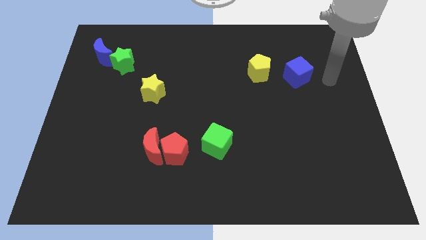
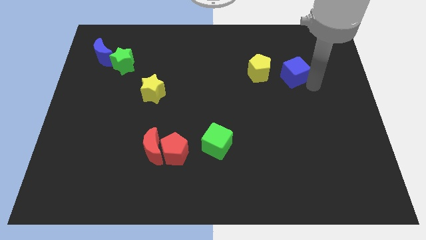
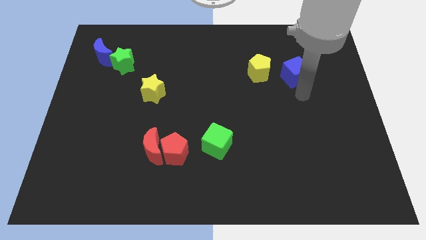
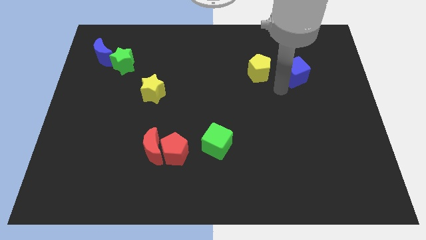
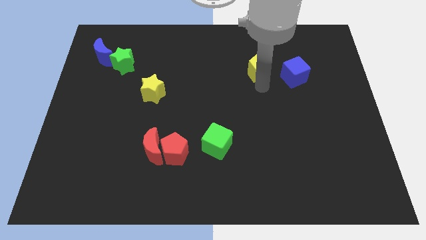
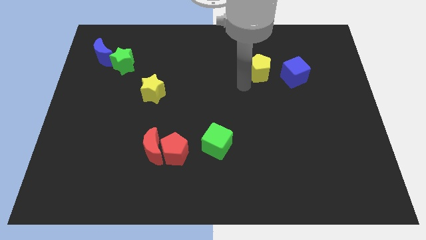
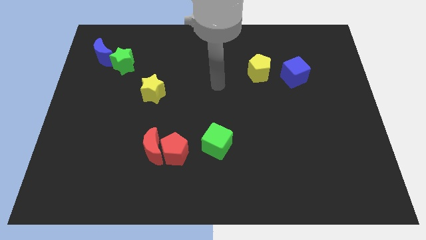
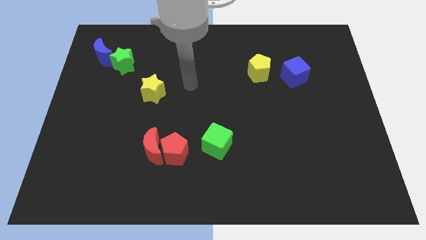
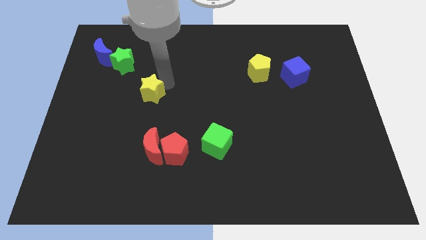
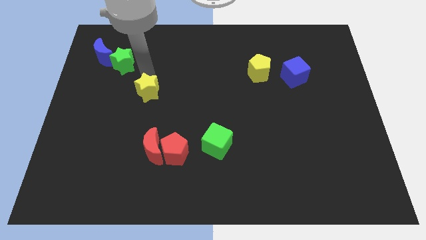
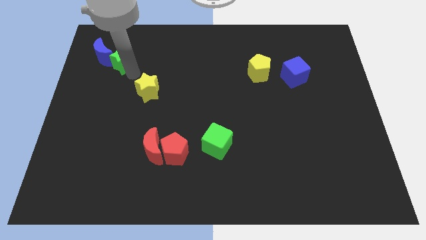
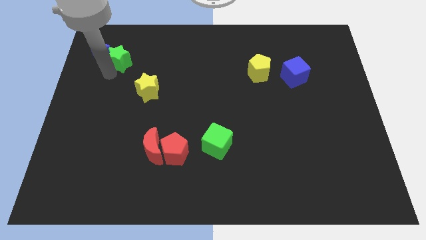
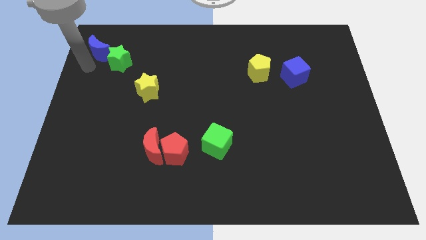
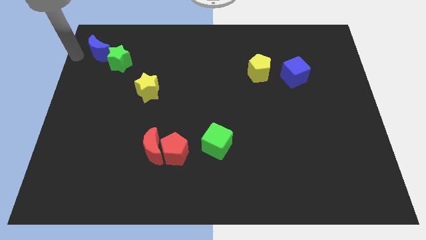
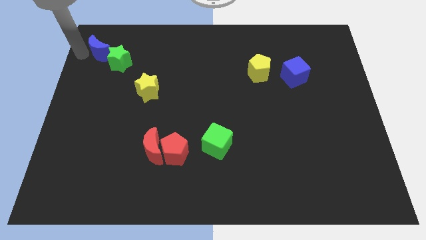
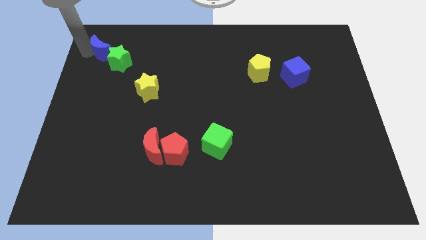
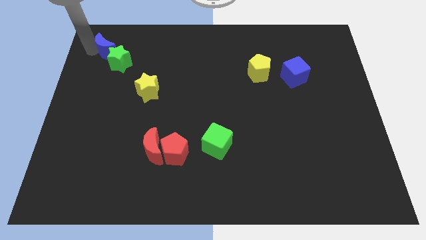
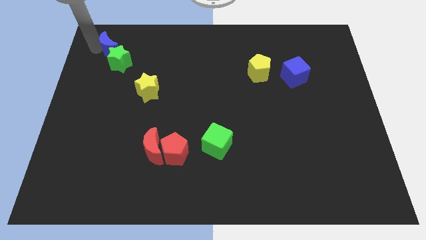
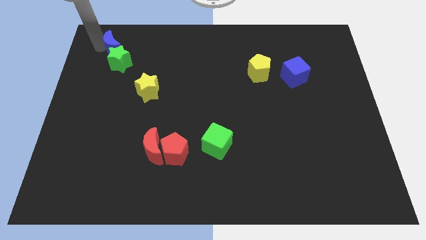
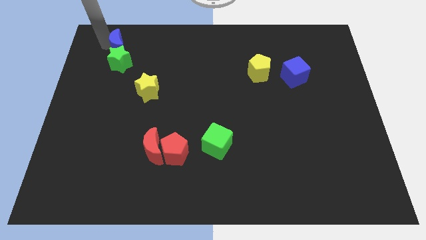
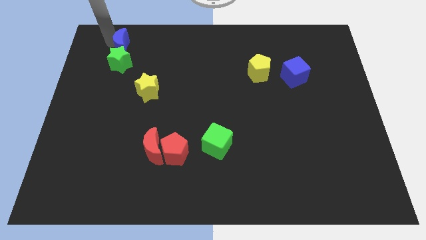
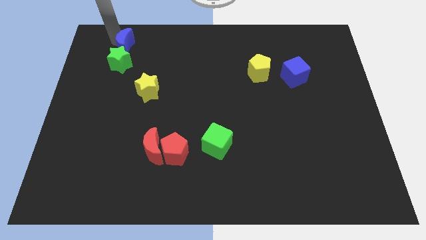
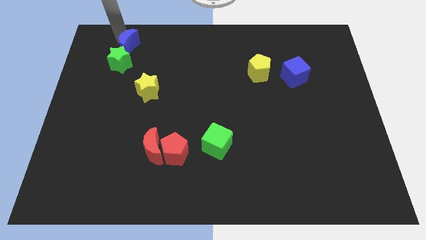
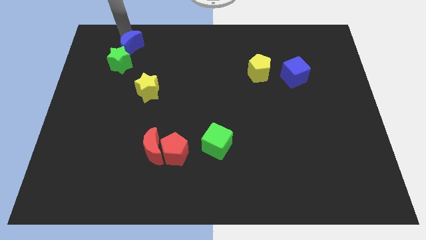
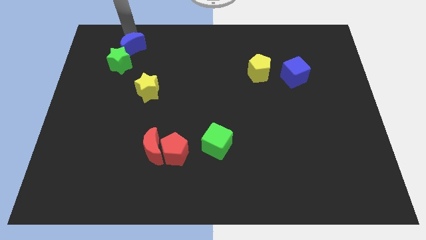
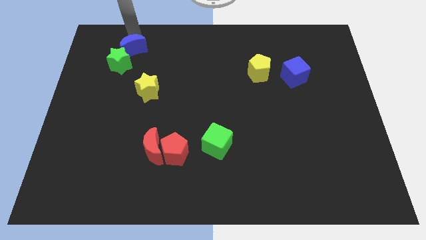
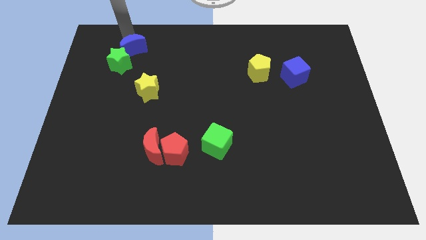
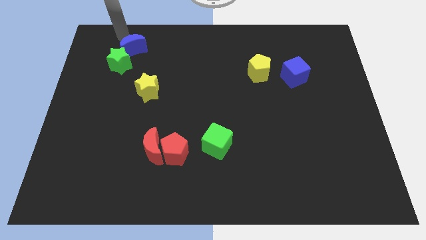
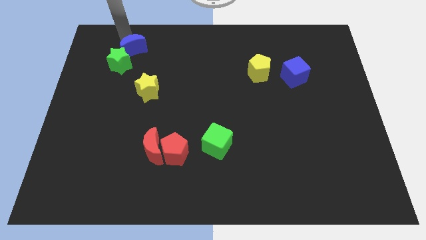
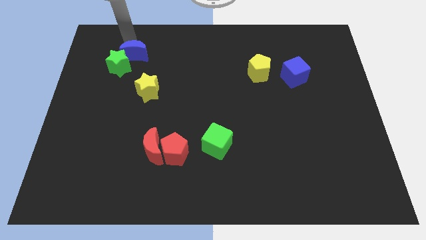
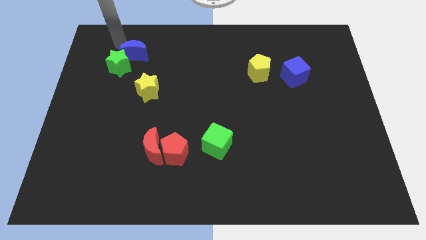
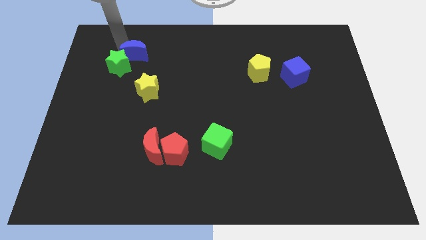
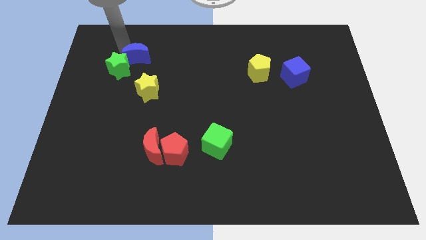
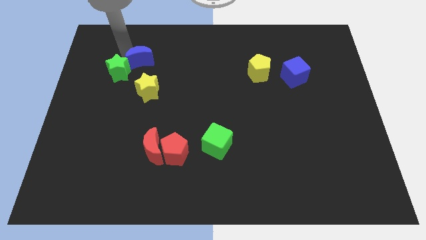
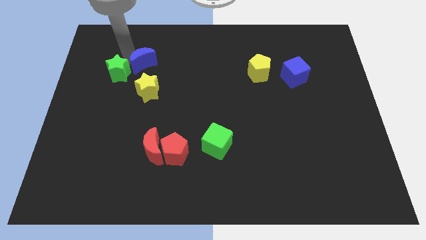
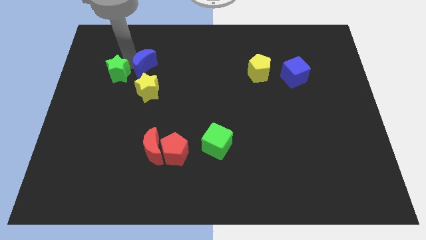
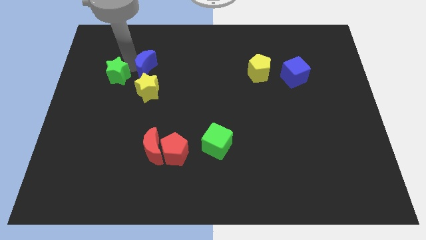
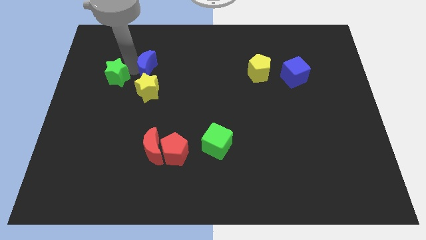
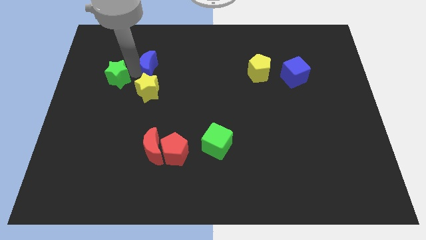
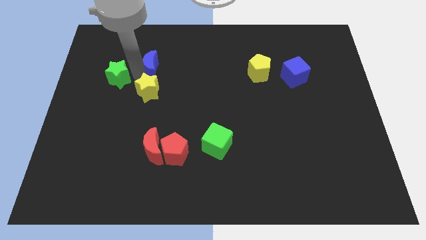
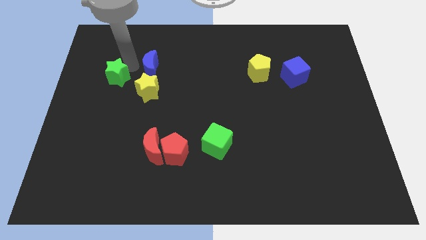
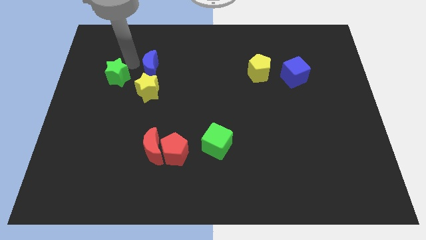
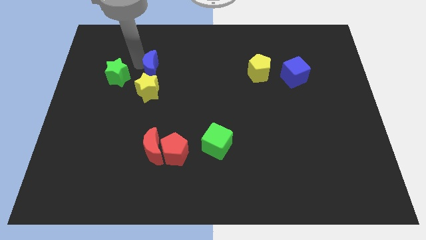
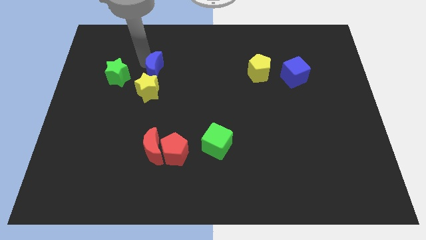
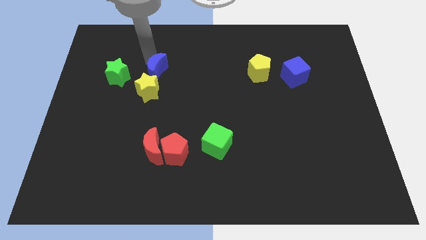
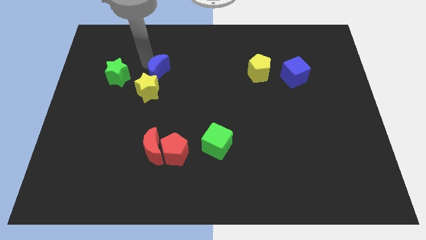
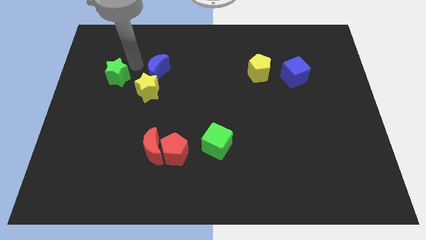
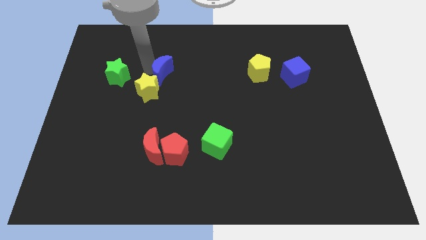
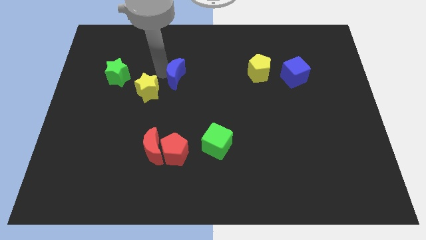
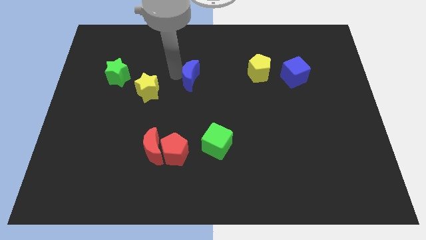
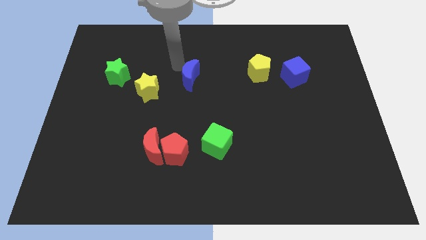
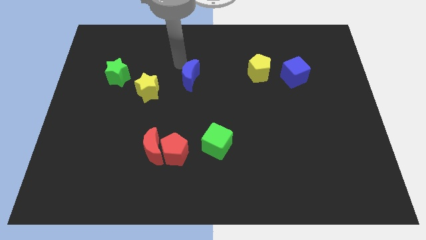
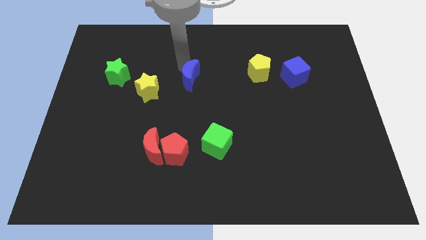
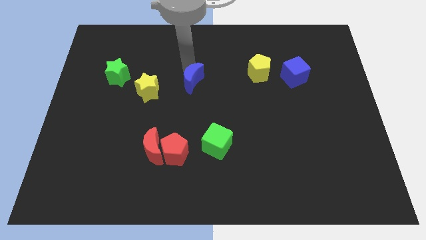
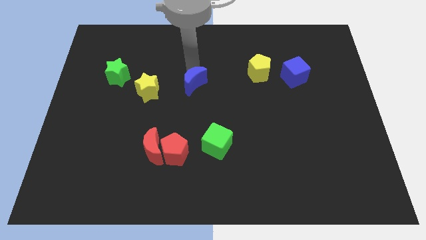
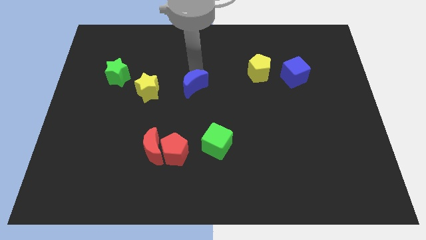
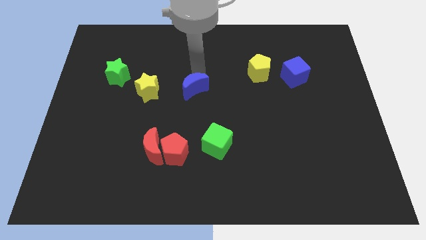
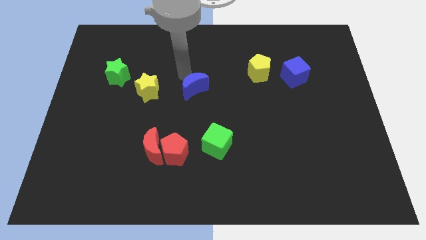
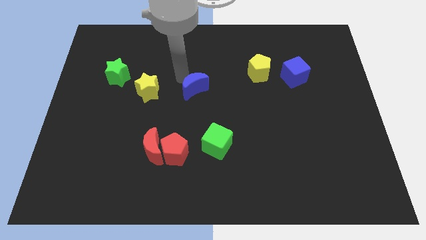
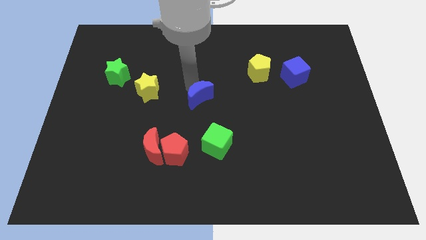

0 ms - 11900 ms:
push the blue moon to the top of the green cube

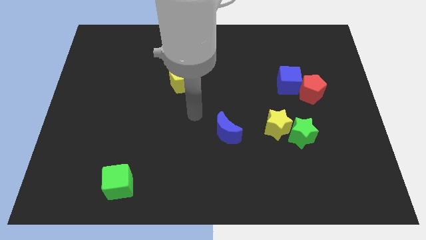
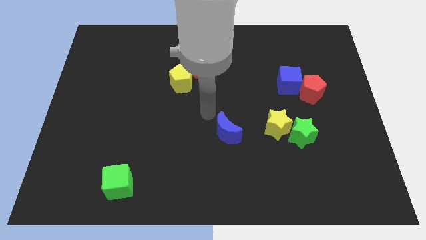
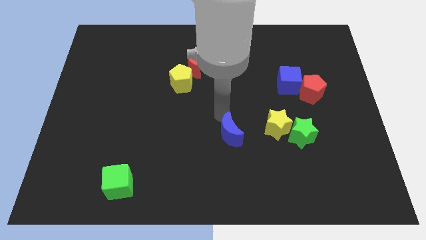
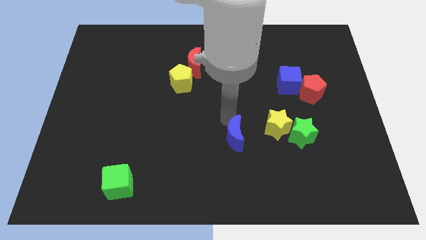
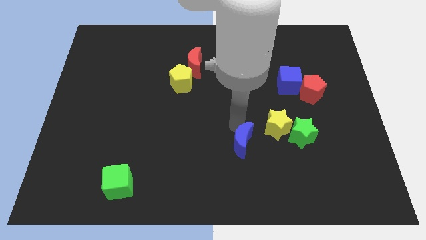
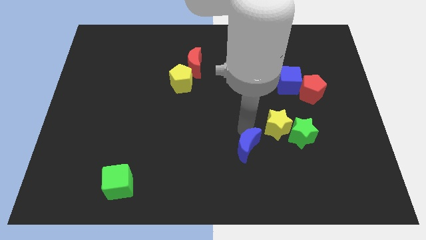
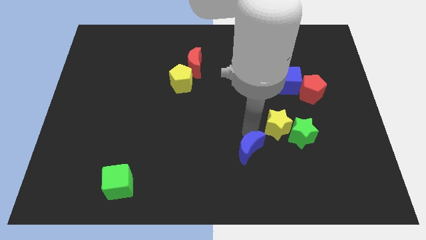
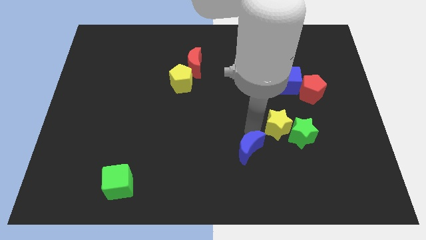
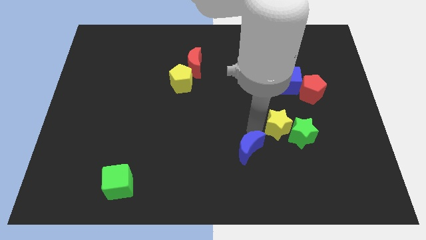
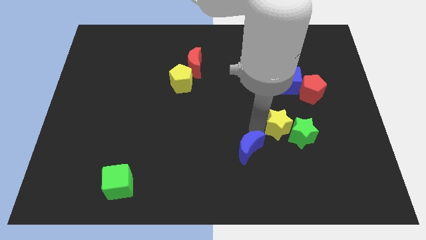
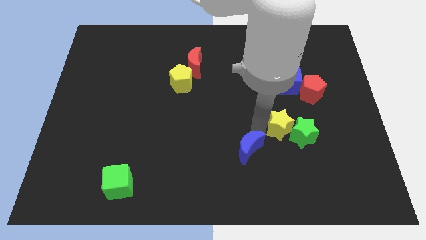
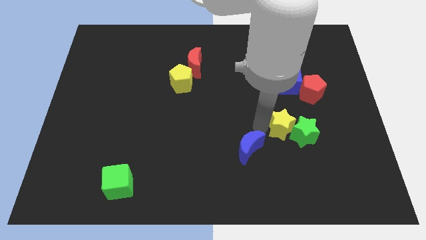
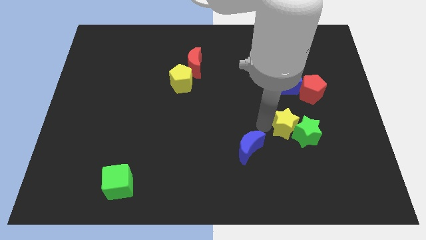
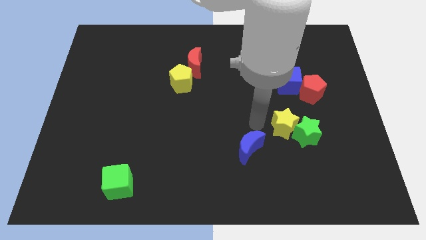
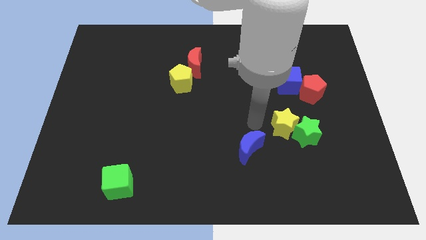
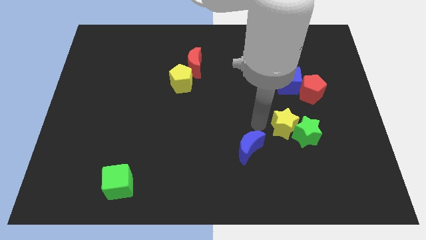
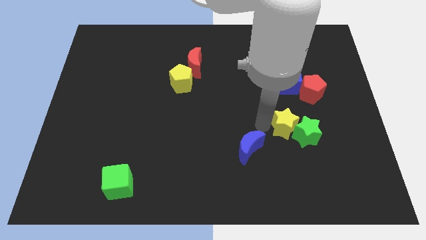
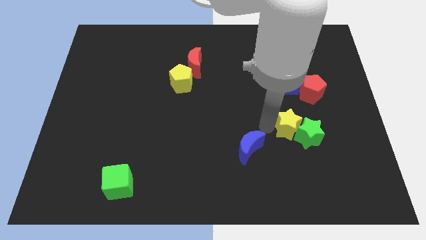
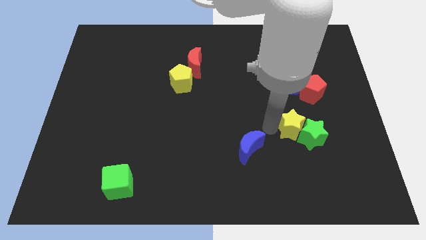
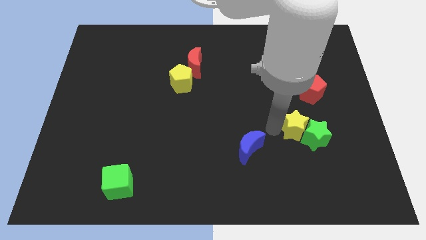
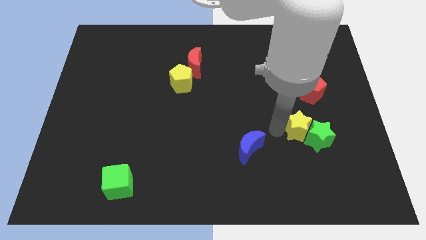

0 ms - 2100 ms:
put the yellow star to the bottom of the red pentagon
